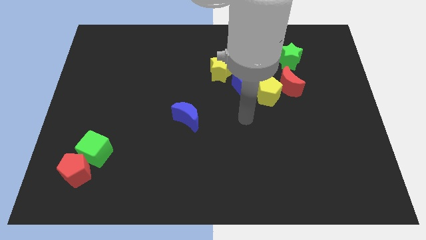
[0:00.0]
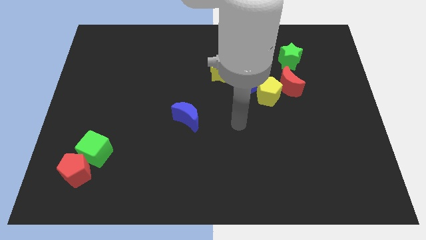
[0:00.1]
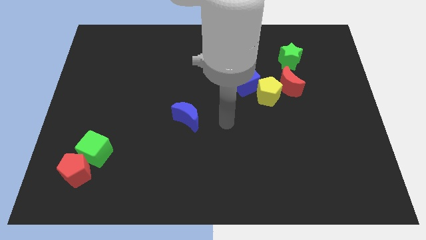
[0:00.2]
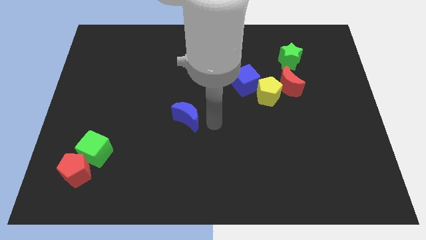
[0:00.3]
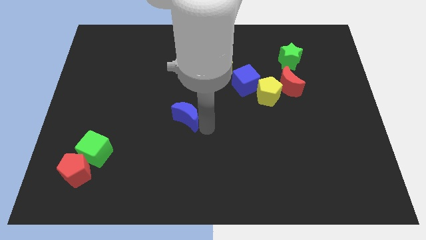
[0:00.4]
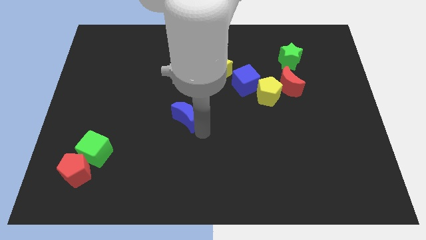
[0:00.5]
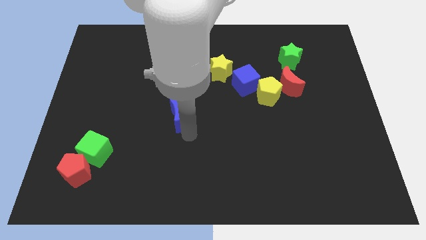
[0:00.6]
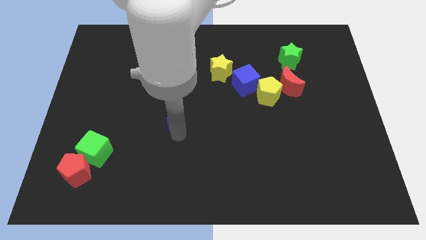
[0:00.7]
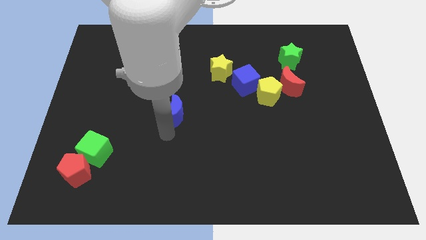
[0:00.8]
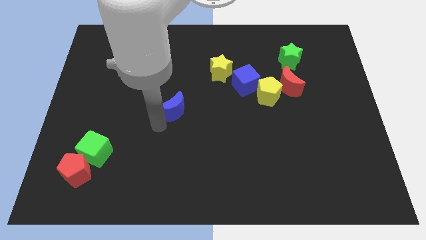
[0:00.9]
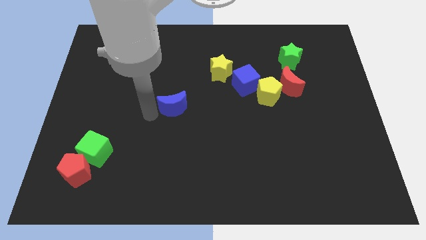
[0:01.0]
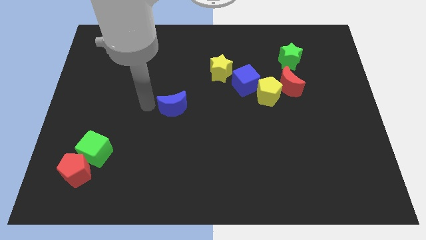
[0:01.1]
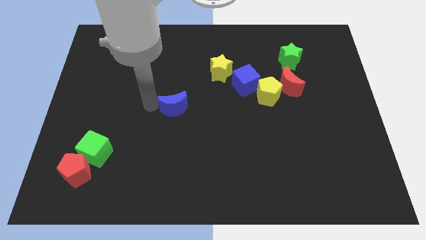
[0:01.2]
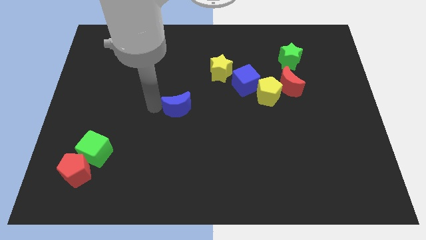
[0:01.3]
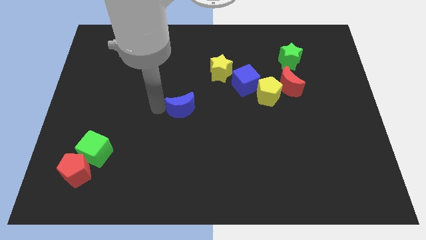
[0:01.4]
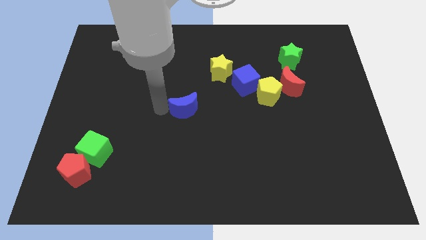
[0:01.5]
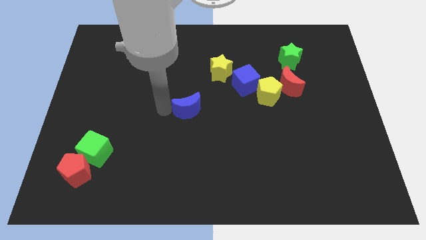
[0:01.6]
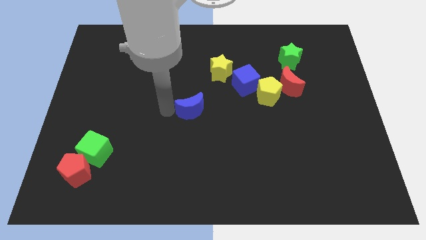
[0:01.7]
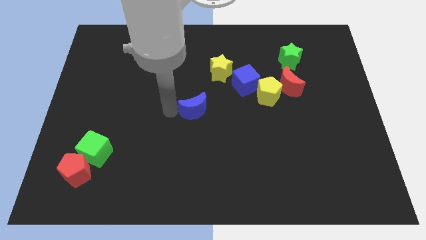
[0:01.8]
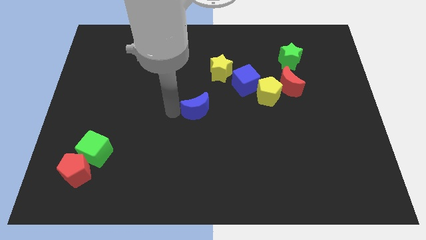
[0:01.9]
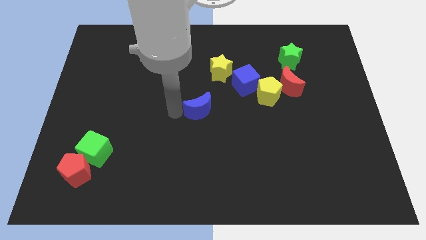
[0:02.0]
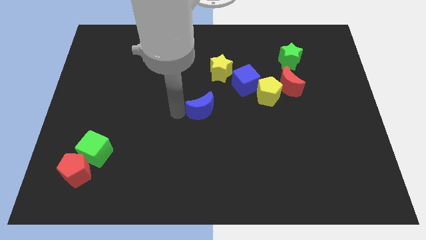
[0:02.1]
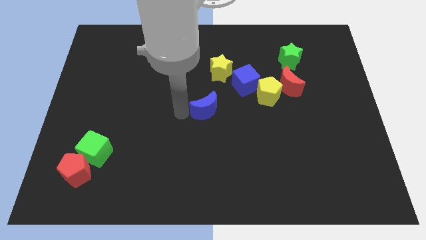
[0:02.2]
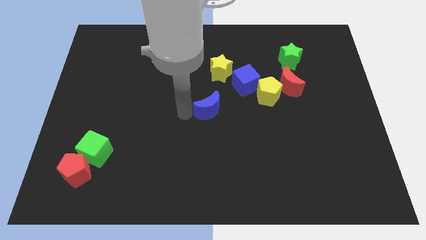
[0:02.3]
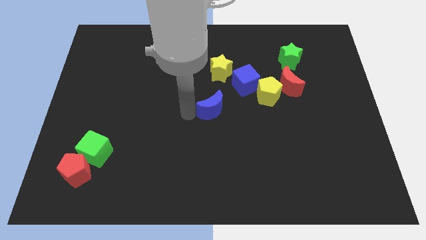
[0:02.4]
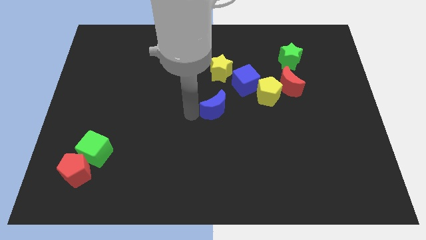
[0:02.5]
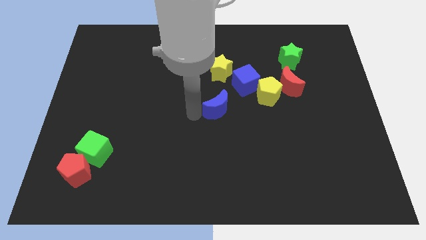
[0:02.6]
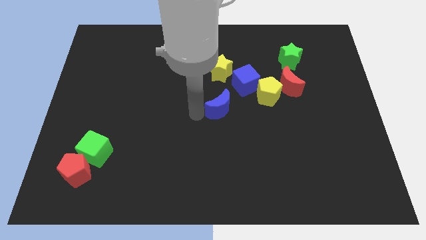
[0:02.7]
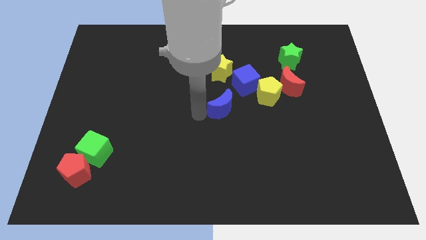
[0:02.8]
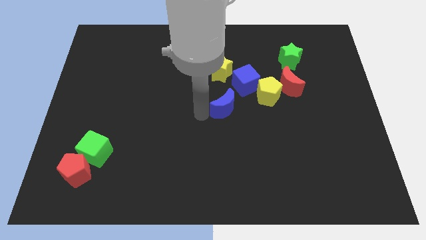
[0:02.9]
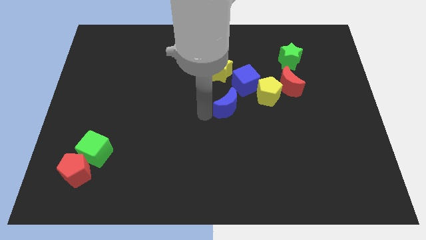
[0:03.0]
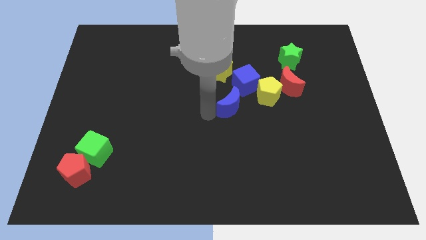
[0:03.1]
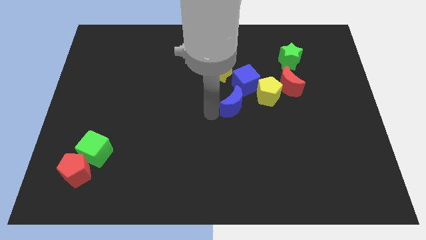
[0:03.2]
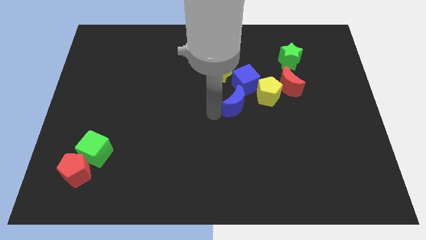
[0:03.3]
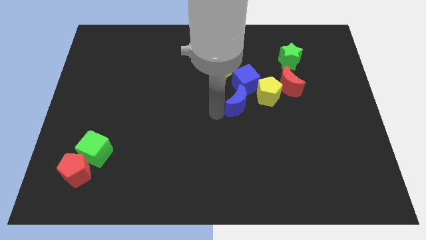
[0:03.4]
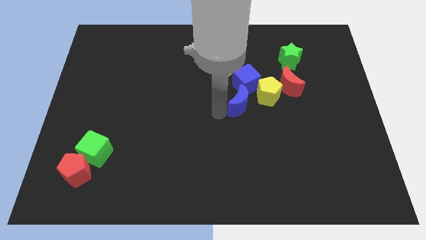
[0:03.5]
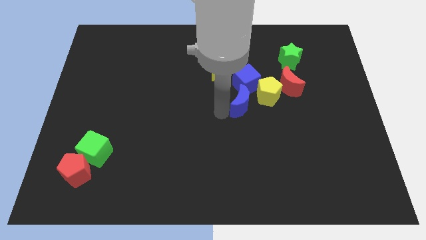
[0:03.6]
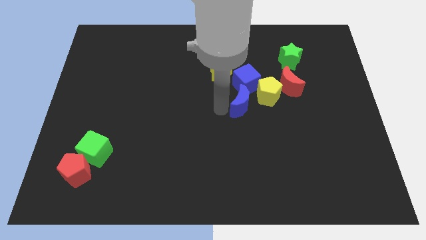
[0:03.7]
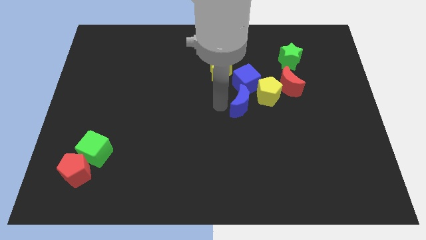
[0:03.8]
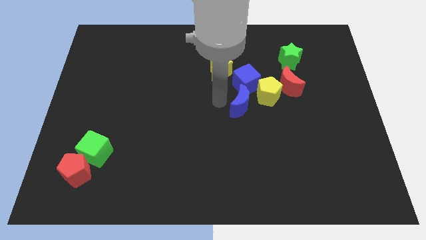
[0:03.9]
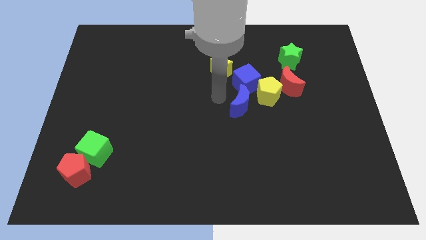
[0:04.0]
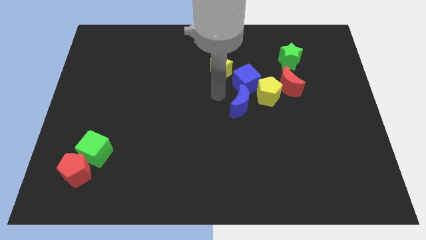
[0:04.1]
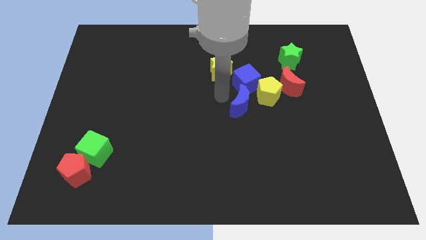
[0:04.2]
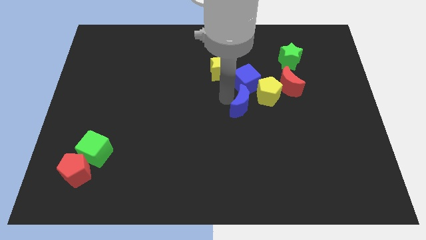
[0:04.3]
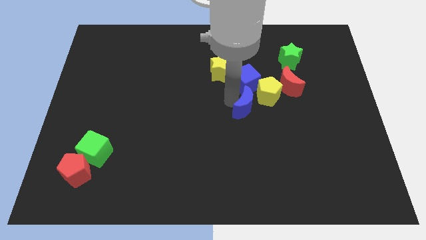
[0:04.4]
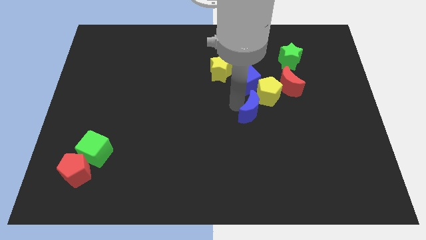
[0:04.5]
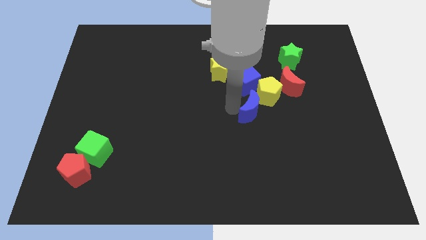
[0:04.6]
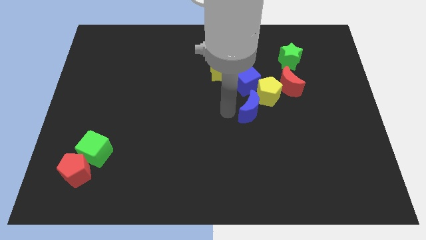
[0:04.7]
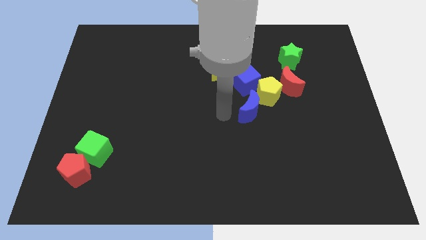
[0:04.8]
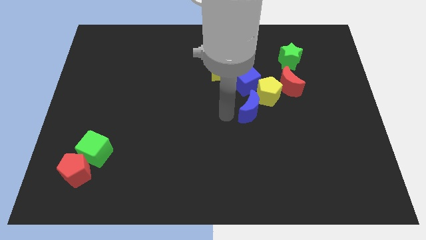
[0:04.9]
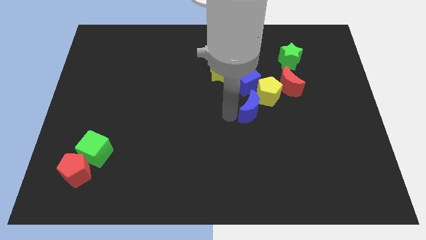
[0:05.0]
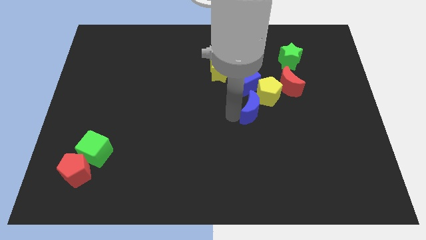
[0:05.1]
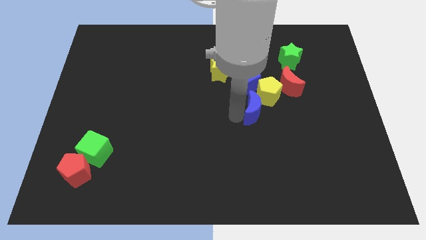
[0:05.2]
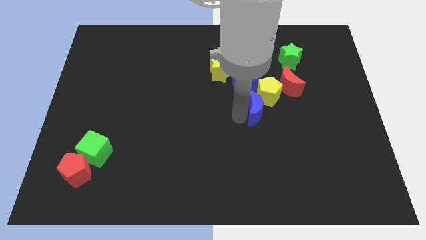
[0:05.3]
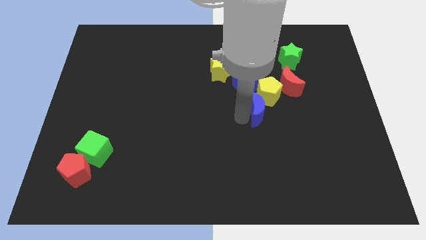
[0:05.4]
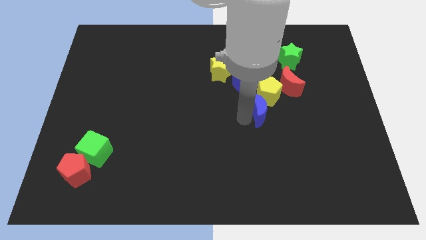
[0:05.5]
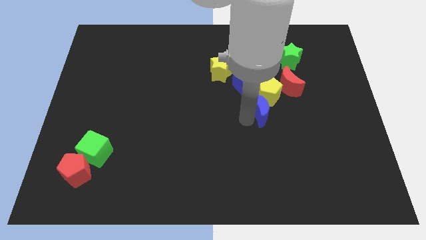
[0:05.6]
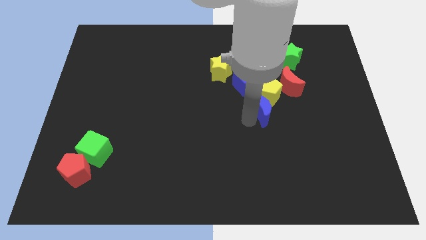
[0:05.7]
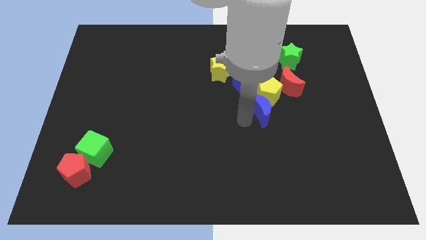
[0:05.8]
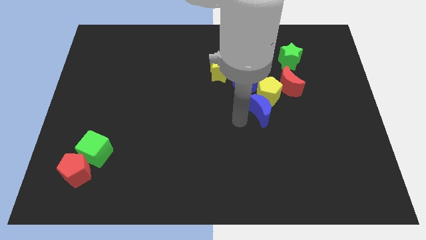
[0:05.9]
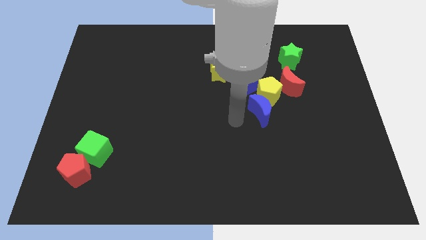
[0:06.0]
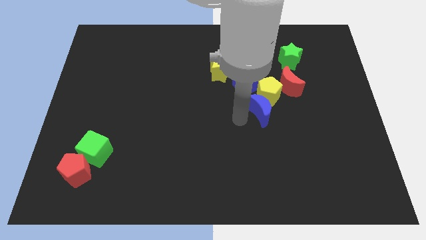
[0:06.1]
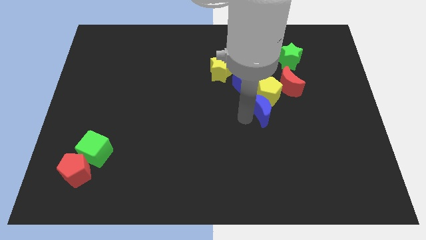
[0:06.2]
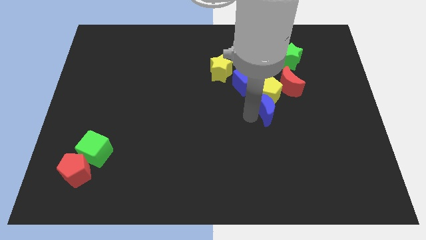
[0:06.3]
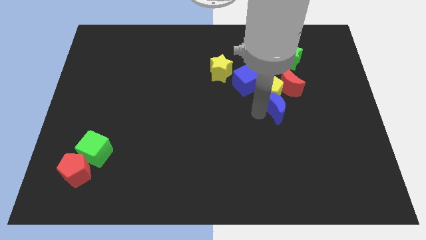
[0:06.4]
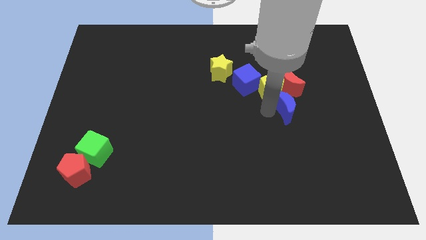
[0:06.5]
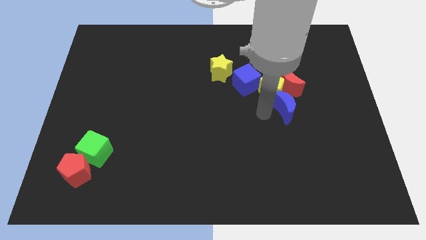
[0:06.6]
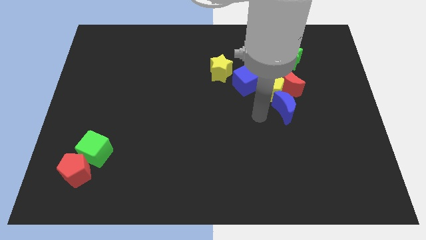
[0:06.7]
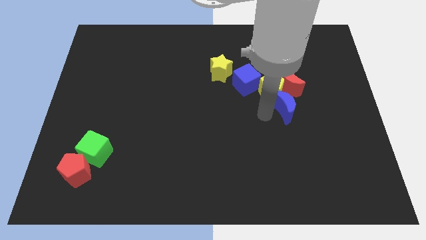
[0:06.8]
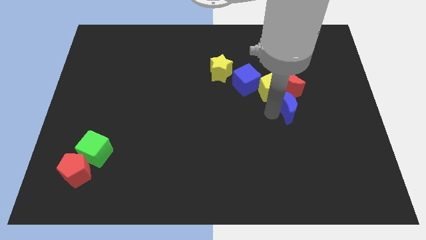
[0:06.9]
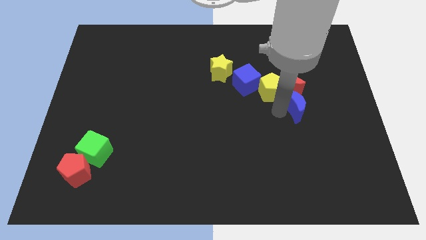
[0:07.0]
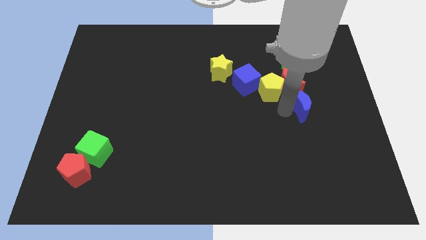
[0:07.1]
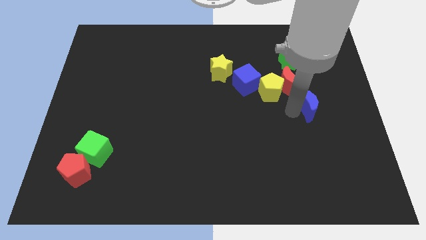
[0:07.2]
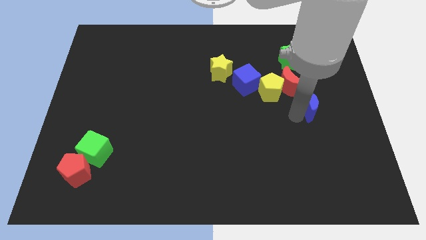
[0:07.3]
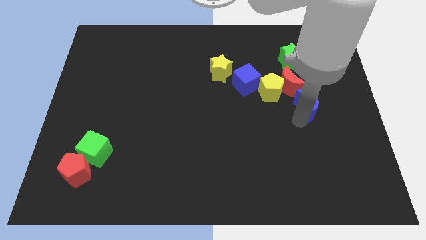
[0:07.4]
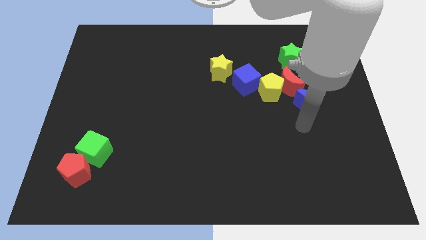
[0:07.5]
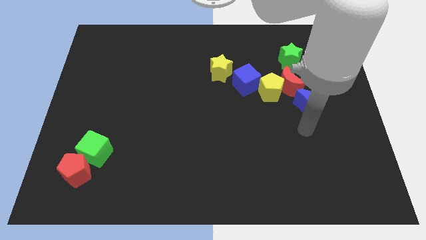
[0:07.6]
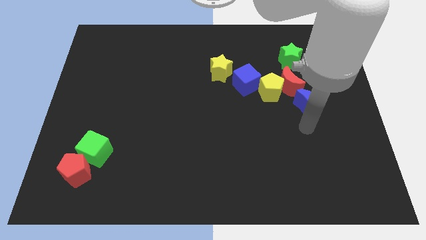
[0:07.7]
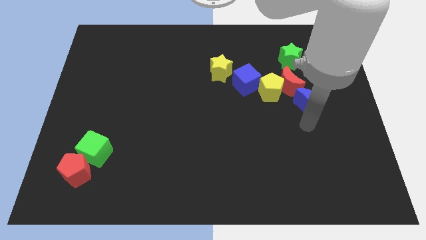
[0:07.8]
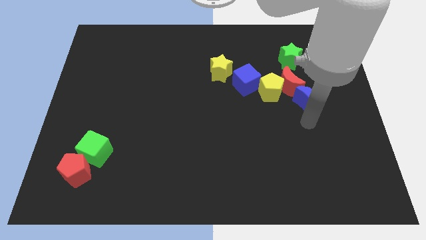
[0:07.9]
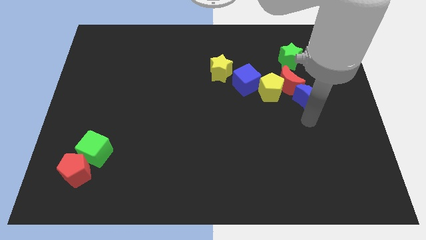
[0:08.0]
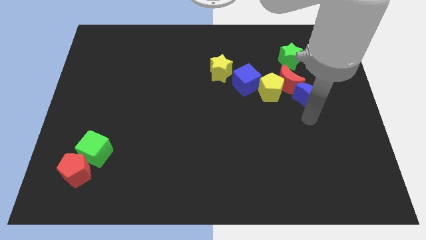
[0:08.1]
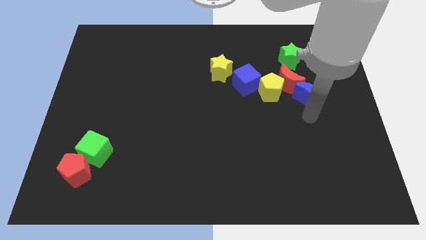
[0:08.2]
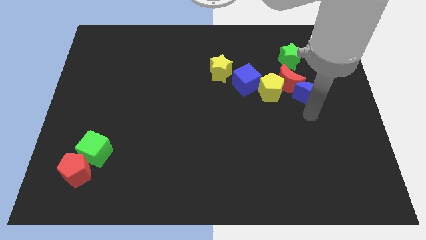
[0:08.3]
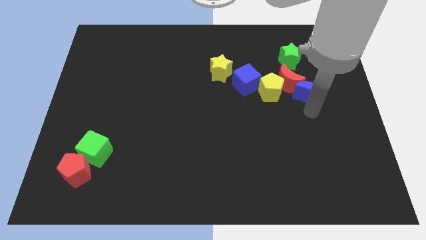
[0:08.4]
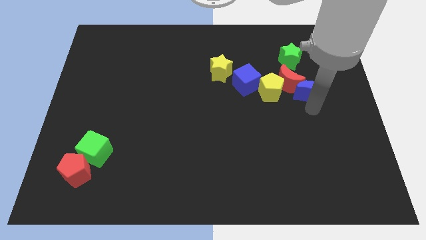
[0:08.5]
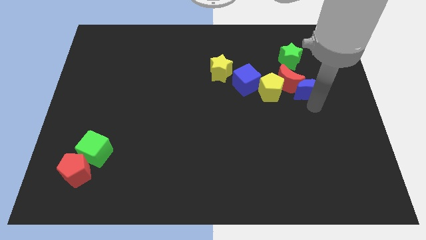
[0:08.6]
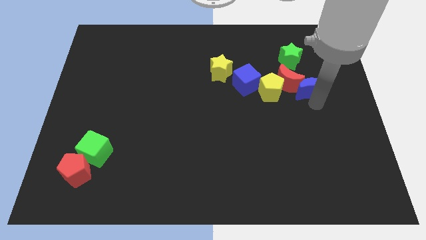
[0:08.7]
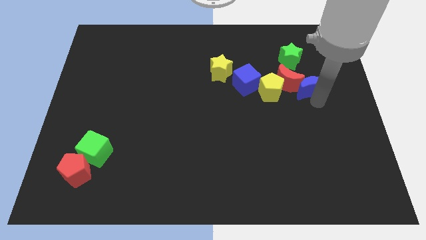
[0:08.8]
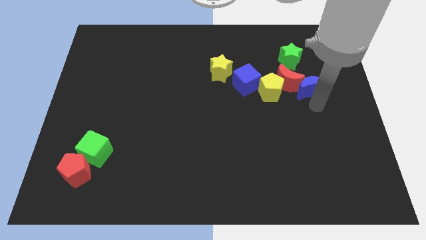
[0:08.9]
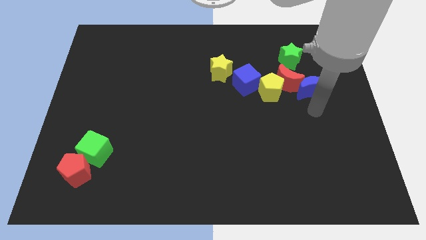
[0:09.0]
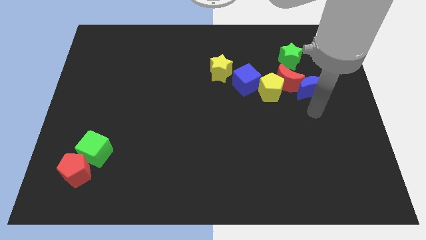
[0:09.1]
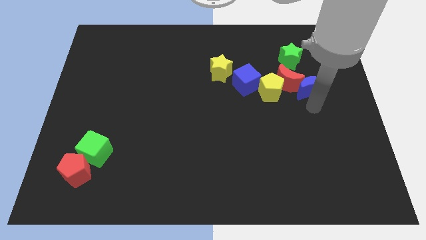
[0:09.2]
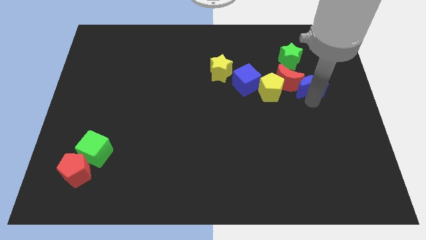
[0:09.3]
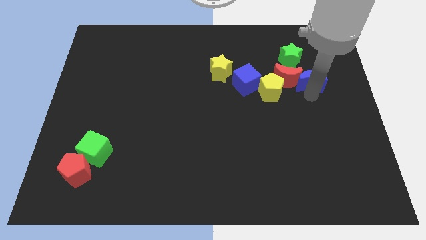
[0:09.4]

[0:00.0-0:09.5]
push the blue moon diagonally up and to the right of the red moon
